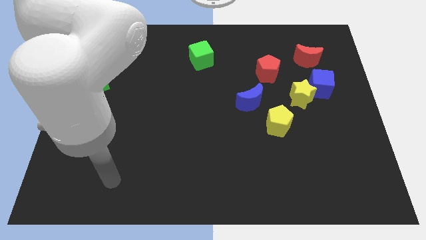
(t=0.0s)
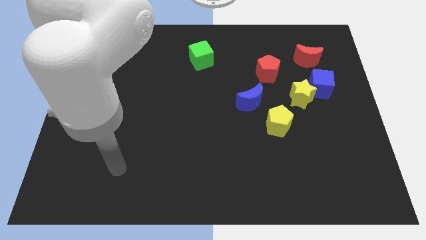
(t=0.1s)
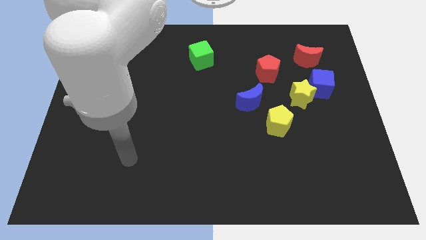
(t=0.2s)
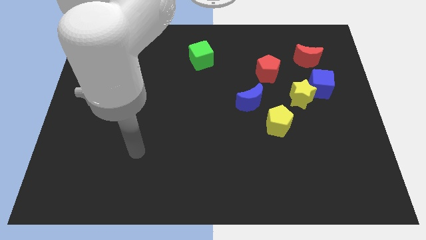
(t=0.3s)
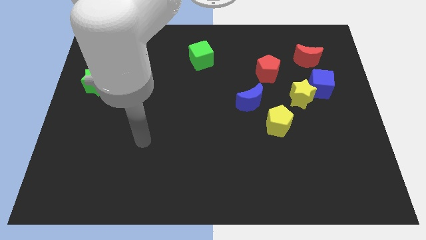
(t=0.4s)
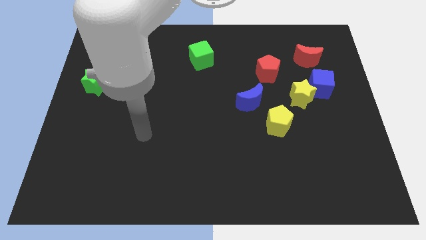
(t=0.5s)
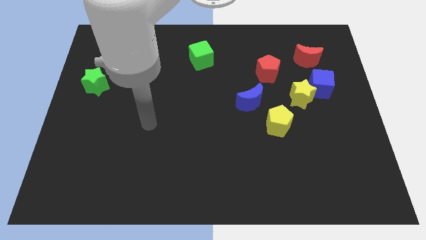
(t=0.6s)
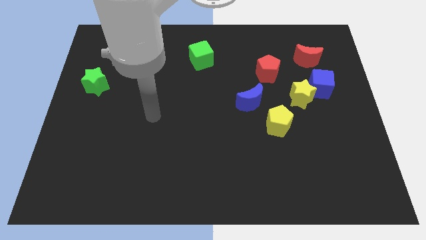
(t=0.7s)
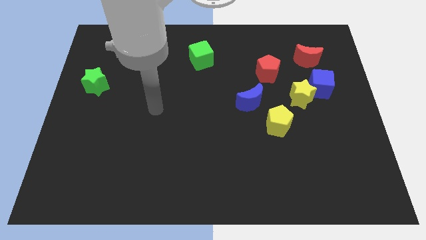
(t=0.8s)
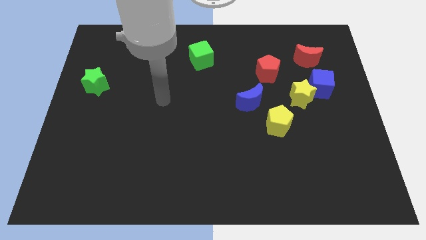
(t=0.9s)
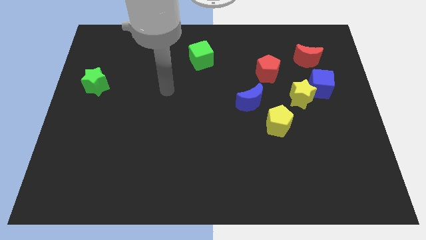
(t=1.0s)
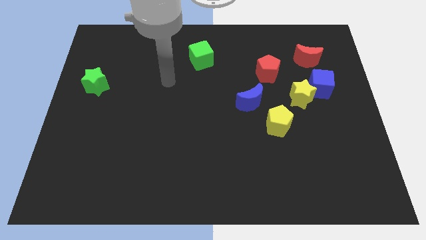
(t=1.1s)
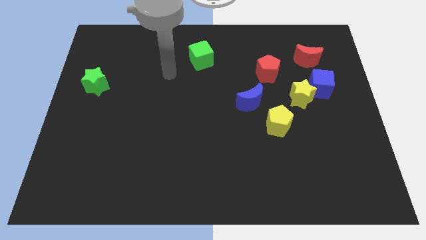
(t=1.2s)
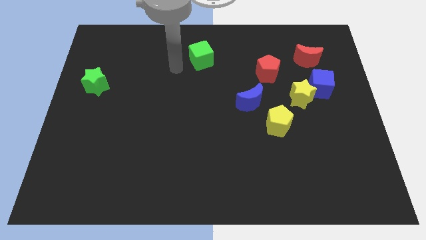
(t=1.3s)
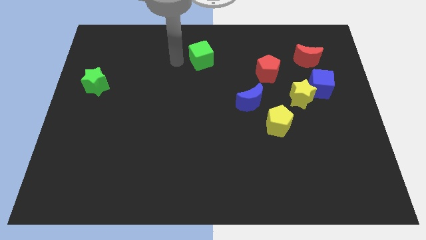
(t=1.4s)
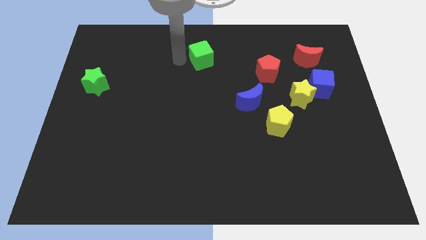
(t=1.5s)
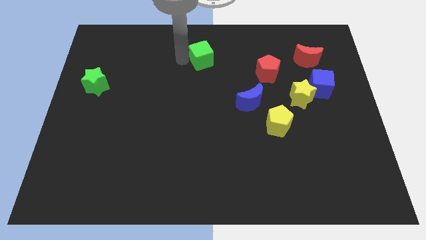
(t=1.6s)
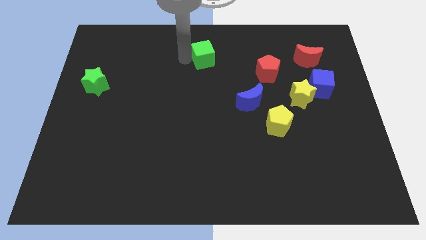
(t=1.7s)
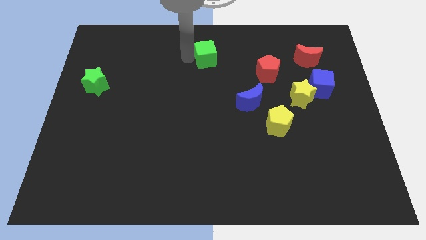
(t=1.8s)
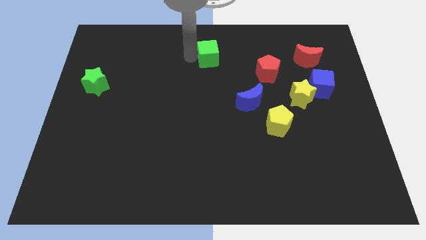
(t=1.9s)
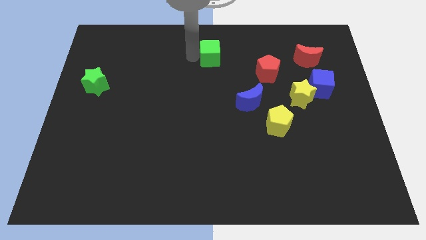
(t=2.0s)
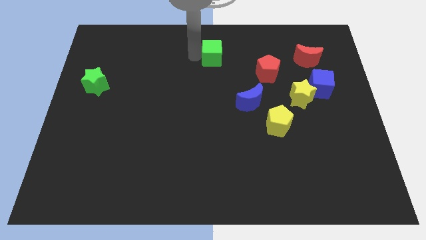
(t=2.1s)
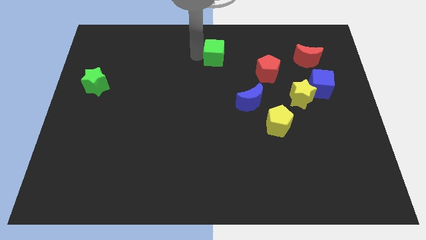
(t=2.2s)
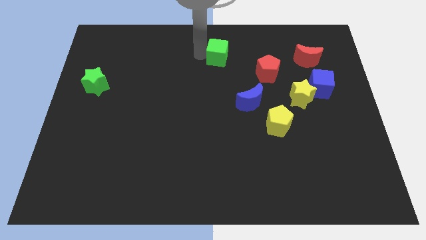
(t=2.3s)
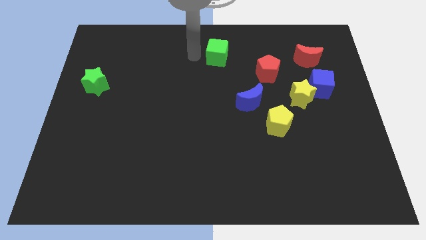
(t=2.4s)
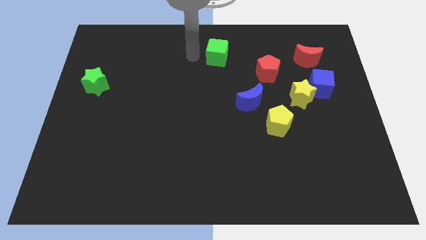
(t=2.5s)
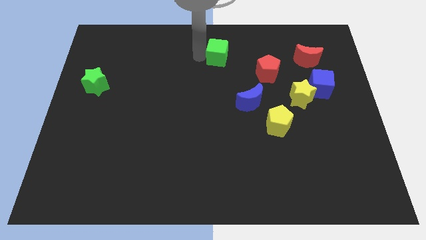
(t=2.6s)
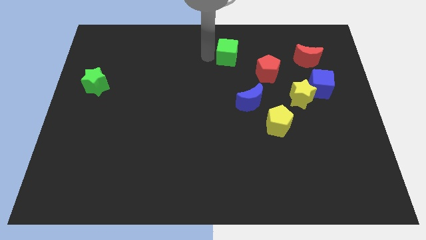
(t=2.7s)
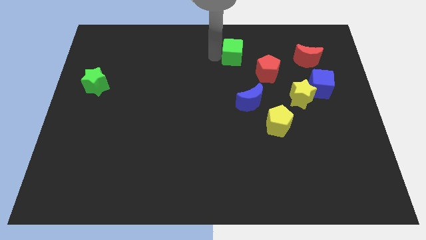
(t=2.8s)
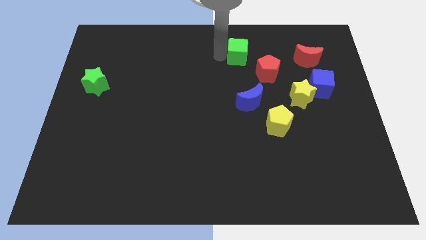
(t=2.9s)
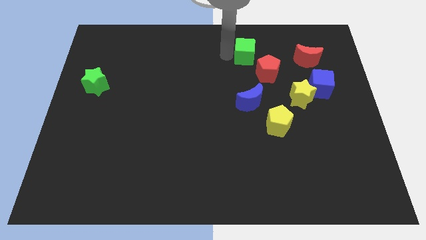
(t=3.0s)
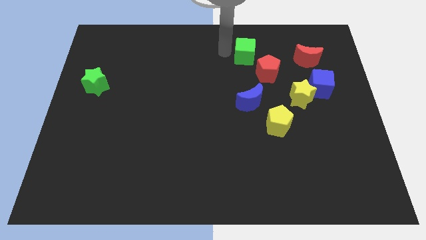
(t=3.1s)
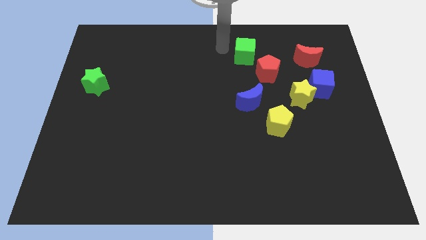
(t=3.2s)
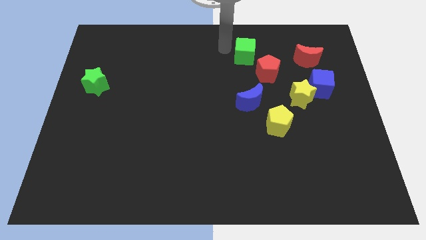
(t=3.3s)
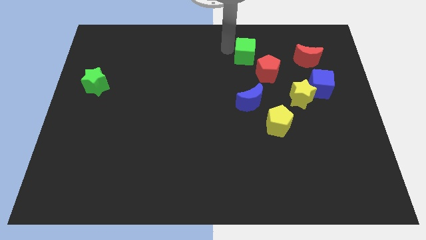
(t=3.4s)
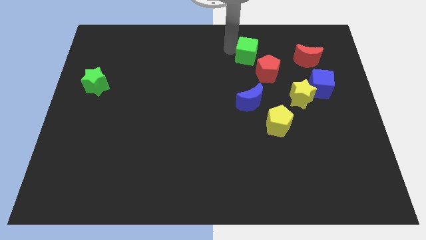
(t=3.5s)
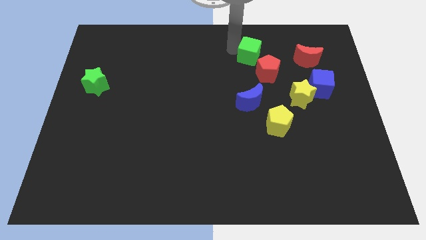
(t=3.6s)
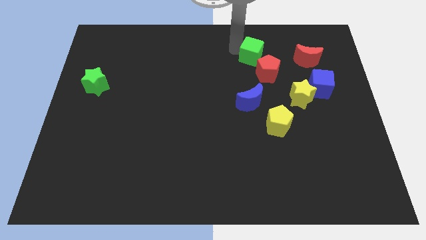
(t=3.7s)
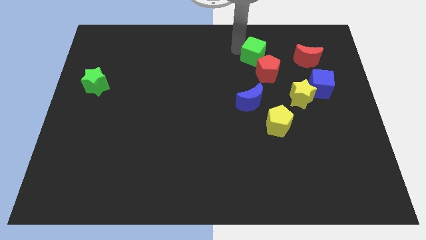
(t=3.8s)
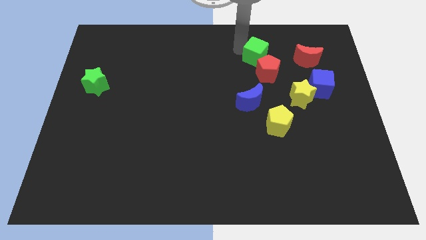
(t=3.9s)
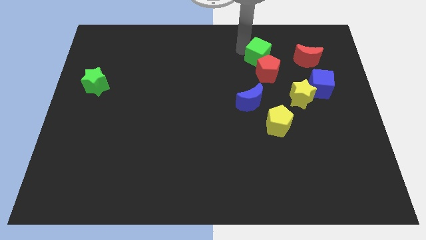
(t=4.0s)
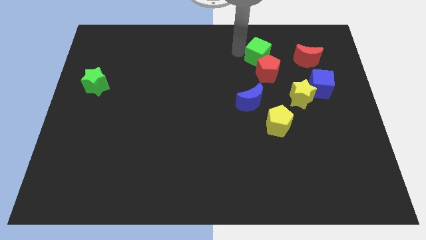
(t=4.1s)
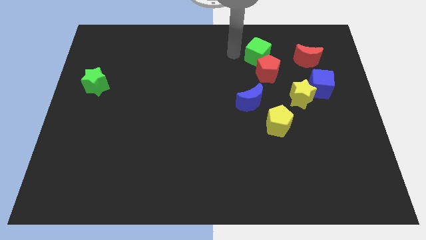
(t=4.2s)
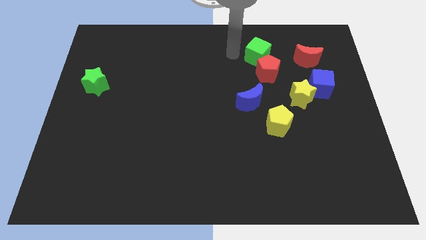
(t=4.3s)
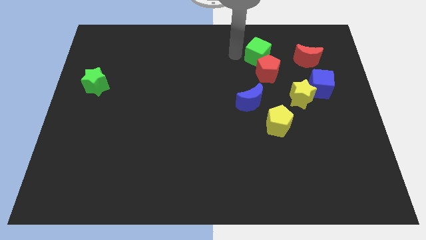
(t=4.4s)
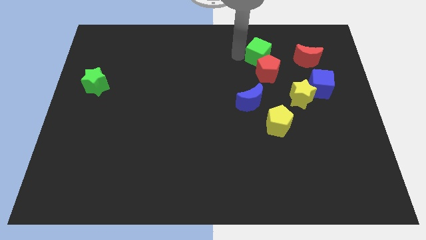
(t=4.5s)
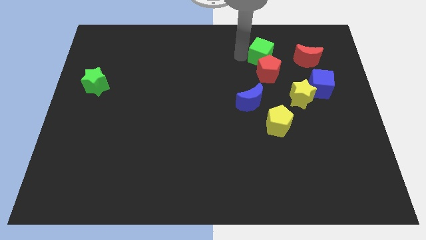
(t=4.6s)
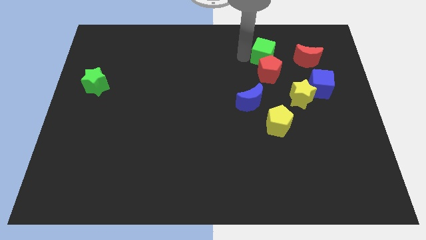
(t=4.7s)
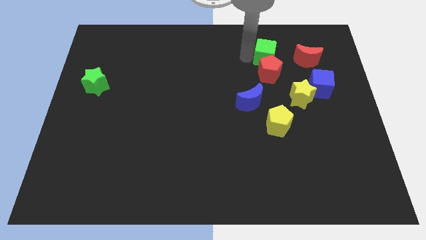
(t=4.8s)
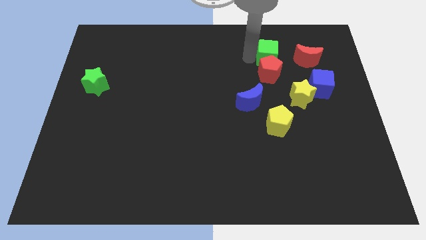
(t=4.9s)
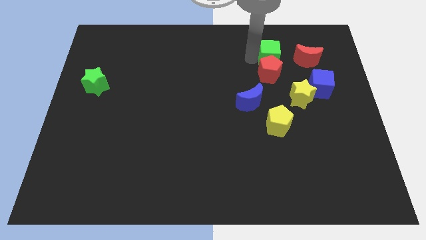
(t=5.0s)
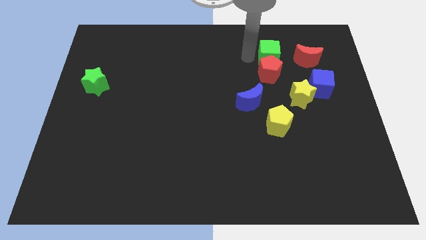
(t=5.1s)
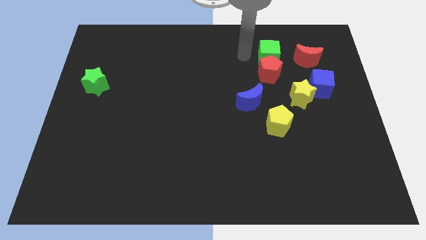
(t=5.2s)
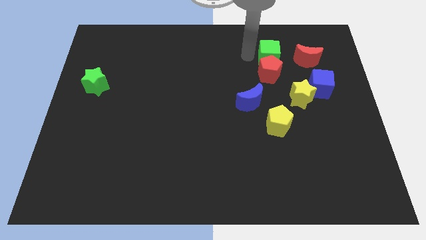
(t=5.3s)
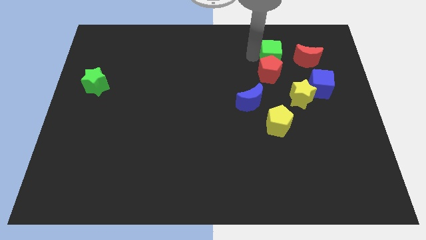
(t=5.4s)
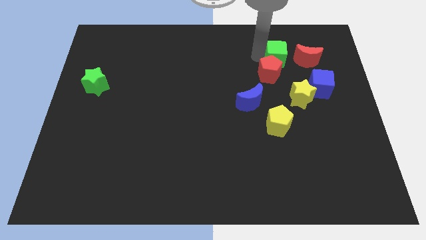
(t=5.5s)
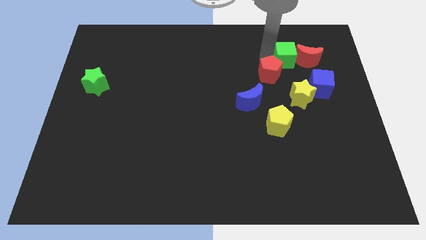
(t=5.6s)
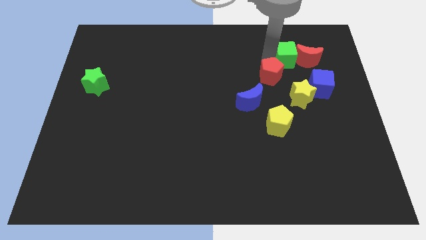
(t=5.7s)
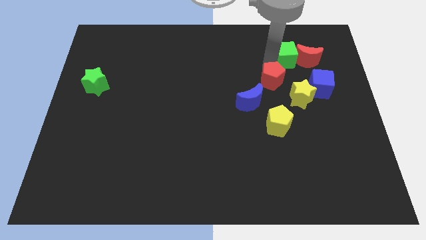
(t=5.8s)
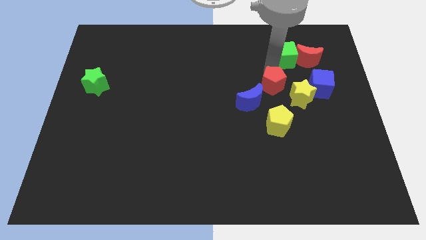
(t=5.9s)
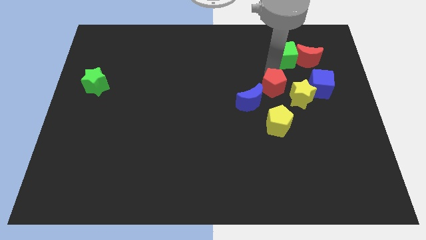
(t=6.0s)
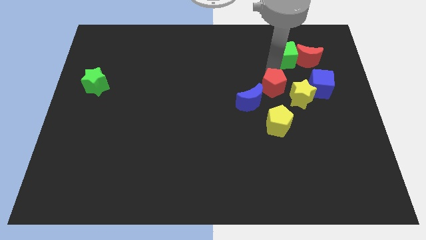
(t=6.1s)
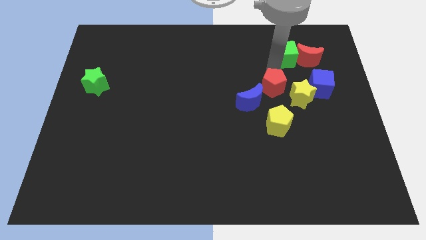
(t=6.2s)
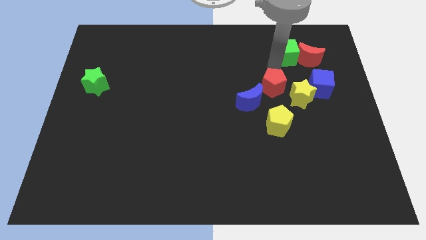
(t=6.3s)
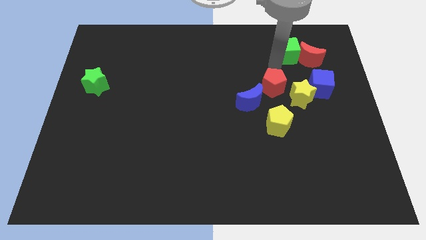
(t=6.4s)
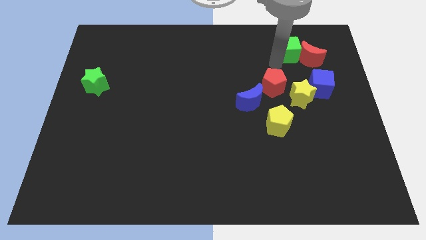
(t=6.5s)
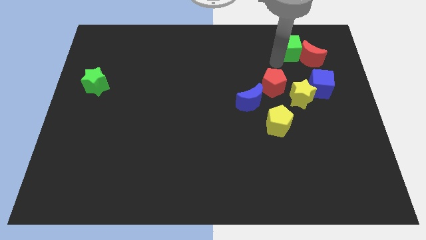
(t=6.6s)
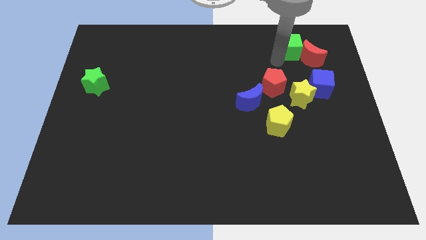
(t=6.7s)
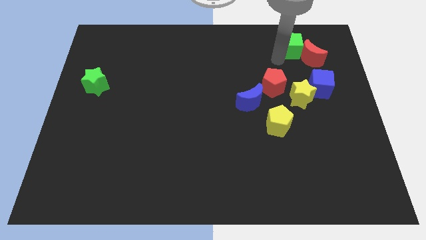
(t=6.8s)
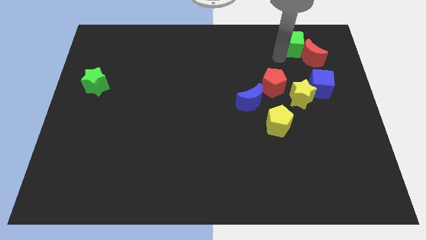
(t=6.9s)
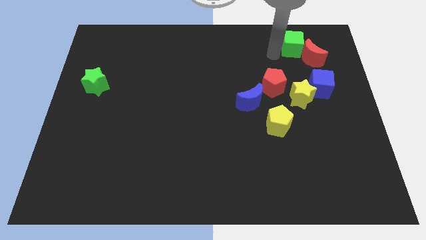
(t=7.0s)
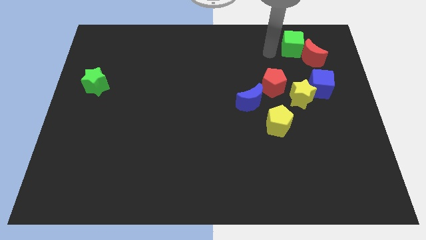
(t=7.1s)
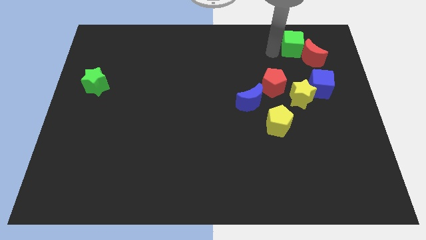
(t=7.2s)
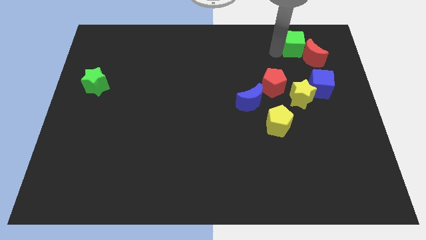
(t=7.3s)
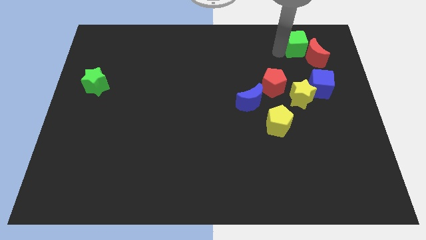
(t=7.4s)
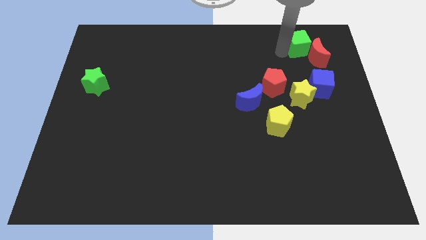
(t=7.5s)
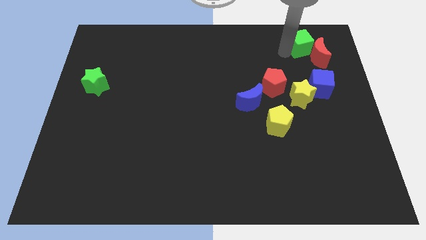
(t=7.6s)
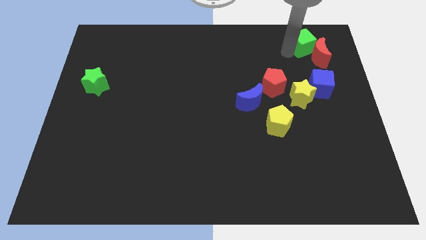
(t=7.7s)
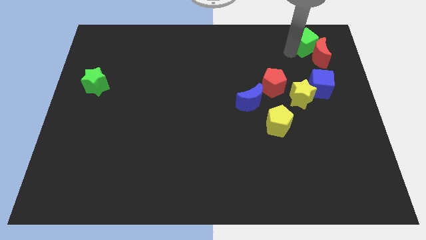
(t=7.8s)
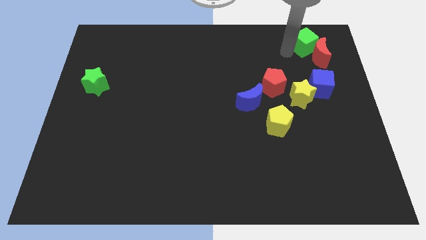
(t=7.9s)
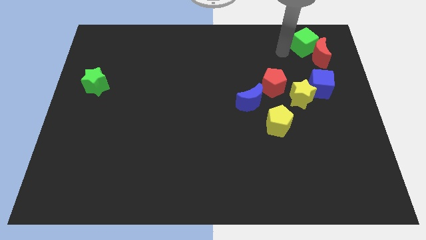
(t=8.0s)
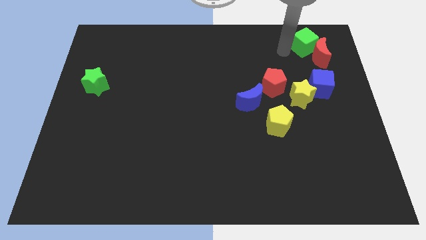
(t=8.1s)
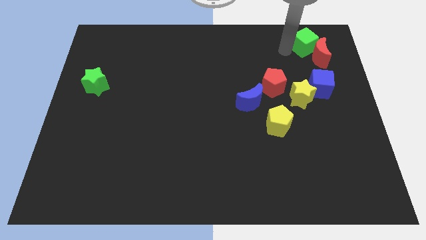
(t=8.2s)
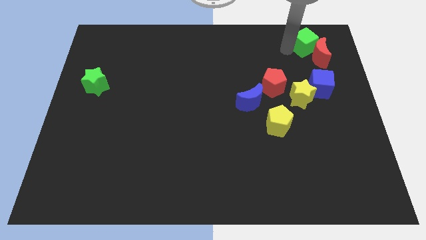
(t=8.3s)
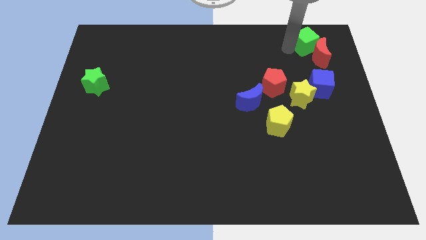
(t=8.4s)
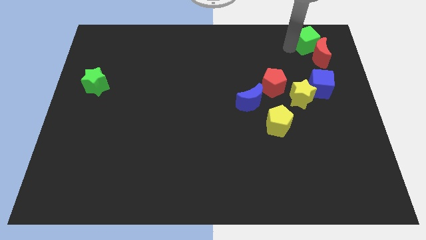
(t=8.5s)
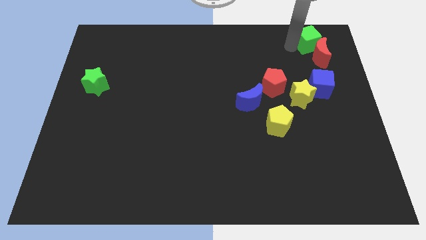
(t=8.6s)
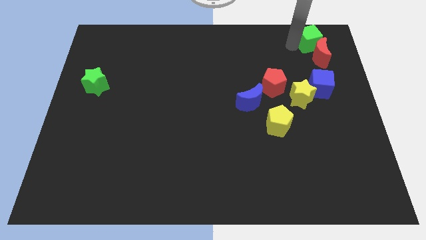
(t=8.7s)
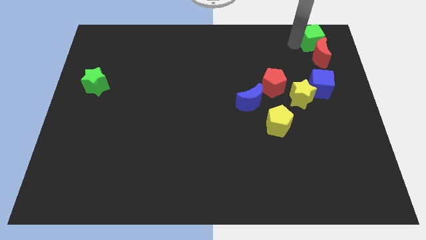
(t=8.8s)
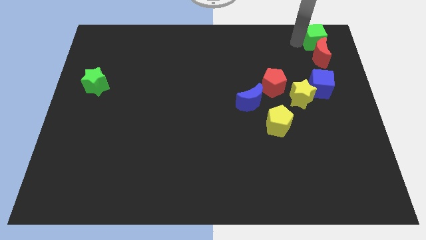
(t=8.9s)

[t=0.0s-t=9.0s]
push the green cube to the top right of the board
